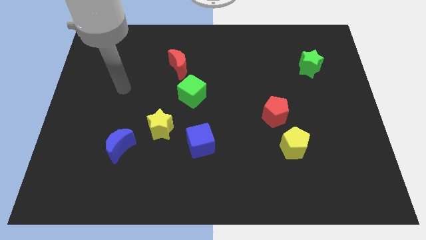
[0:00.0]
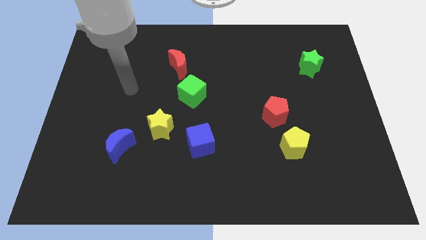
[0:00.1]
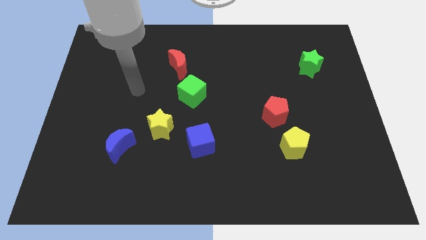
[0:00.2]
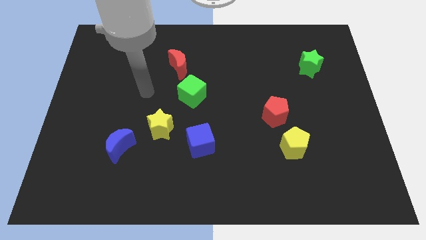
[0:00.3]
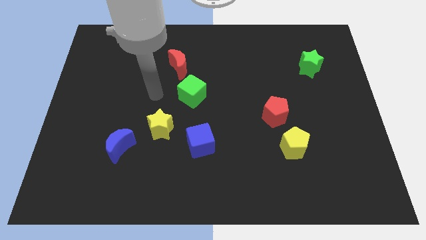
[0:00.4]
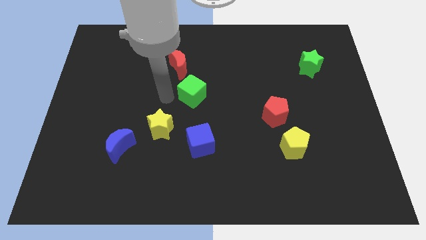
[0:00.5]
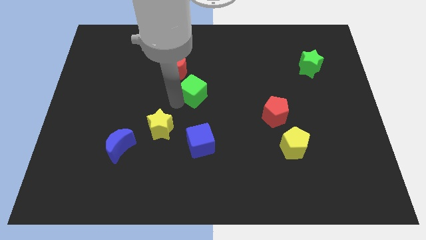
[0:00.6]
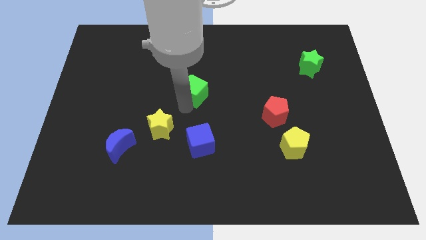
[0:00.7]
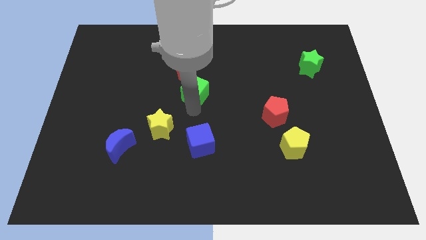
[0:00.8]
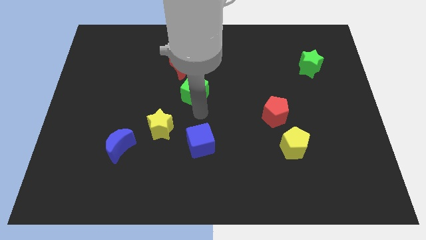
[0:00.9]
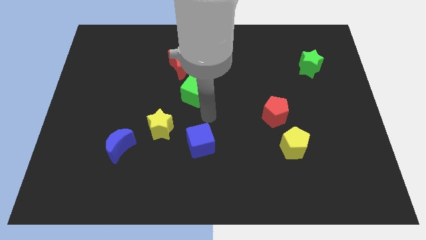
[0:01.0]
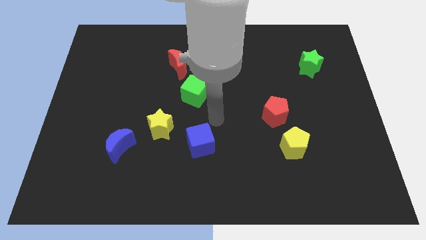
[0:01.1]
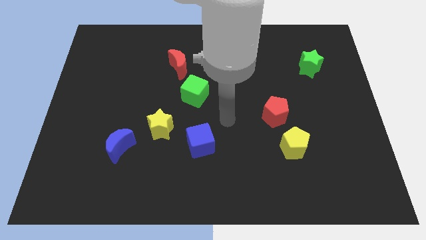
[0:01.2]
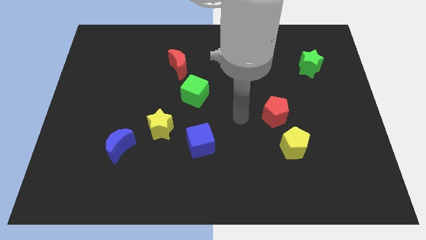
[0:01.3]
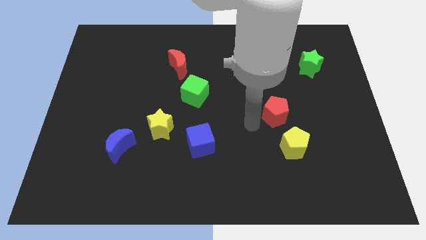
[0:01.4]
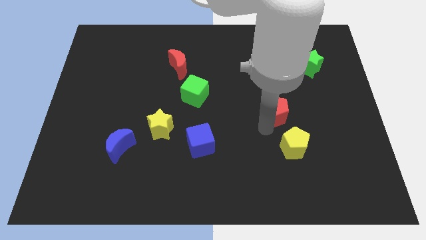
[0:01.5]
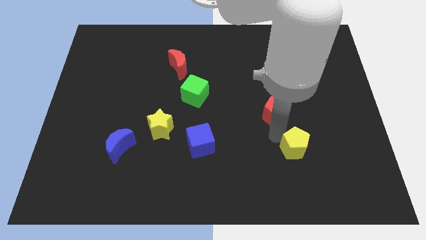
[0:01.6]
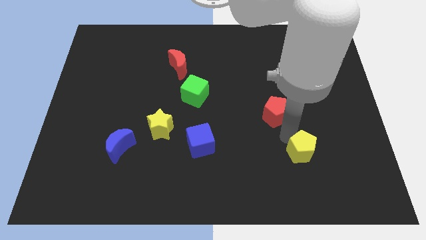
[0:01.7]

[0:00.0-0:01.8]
separate the red pentagon from the yellow pentagon

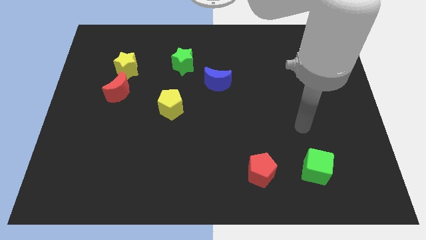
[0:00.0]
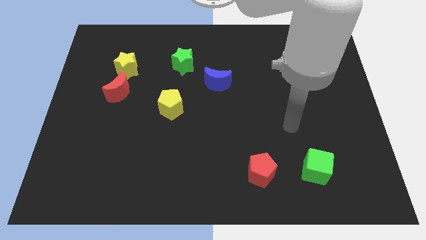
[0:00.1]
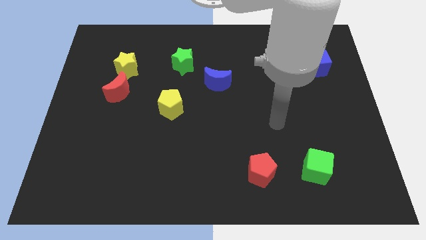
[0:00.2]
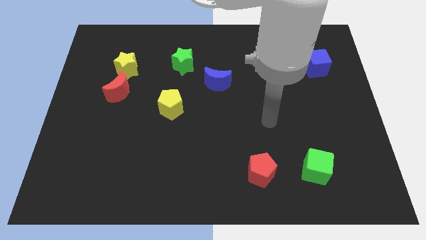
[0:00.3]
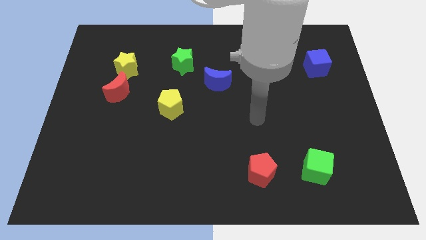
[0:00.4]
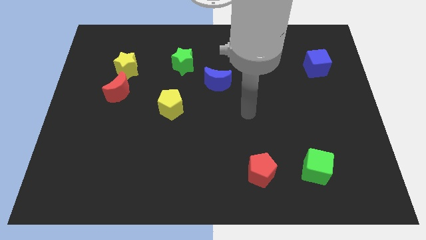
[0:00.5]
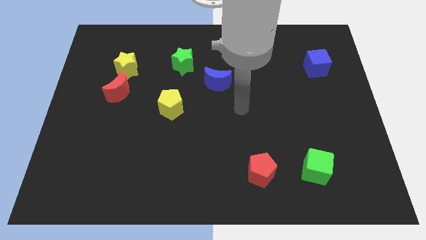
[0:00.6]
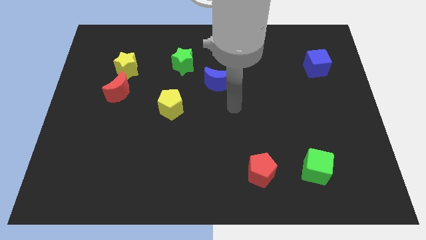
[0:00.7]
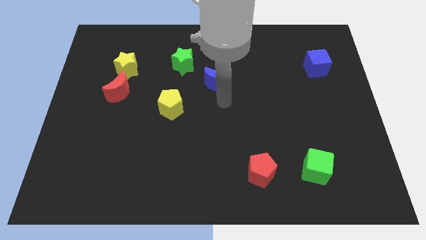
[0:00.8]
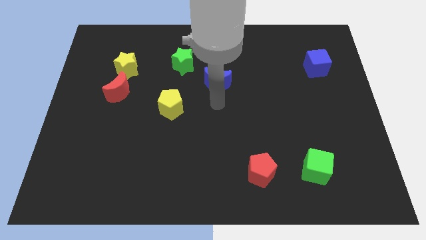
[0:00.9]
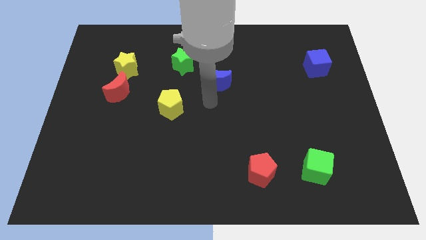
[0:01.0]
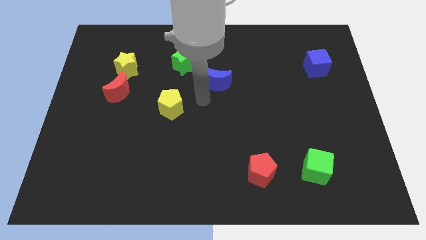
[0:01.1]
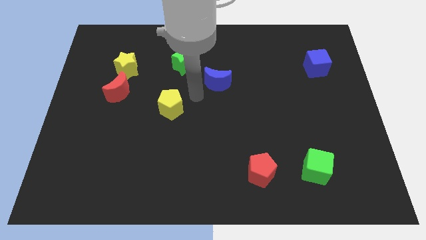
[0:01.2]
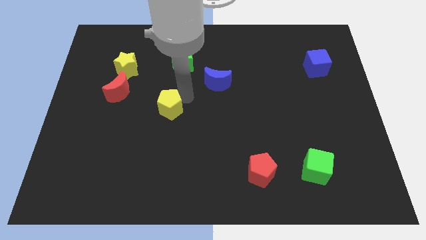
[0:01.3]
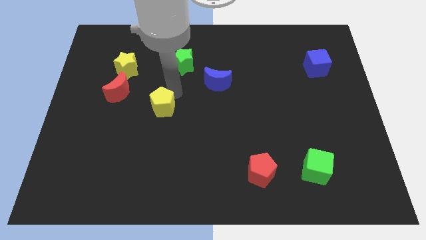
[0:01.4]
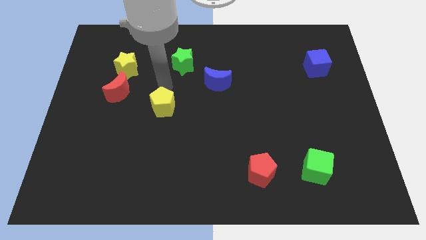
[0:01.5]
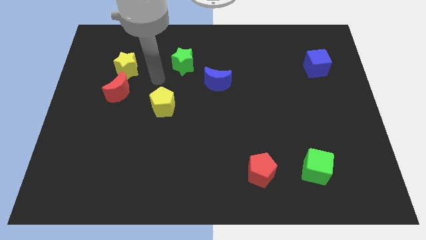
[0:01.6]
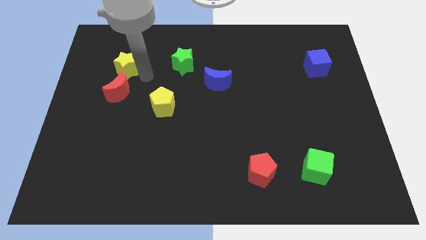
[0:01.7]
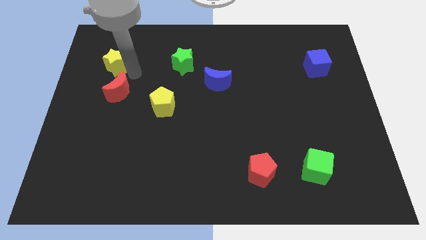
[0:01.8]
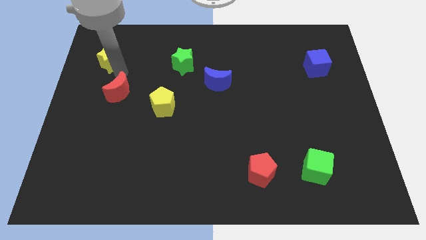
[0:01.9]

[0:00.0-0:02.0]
move the red moon away from the yellow star

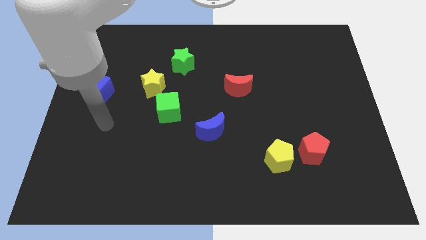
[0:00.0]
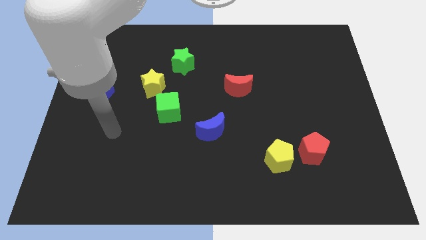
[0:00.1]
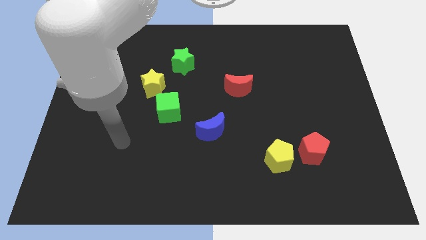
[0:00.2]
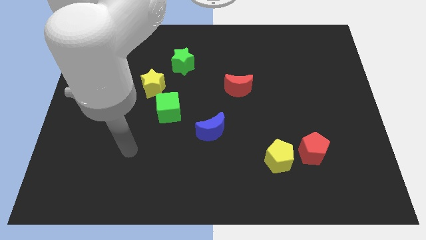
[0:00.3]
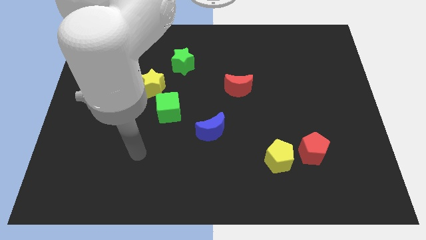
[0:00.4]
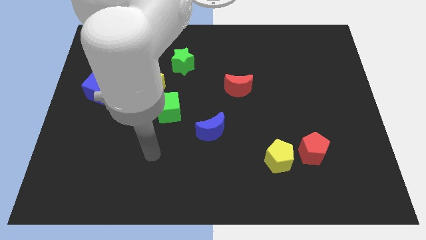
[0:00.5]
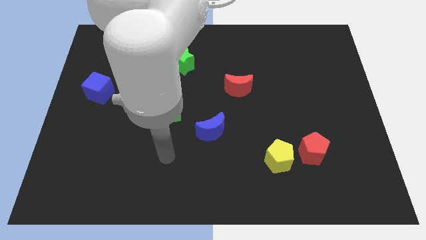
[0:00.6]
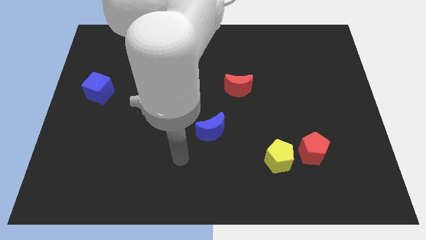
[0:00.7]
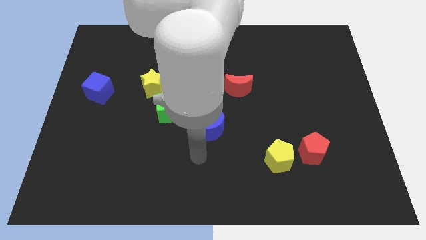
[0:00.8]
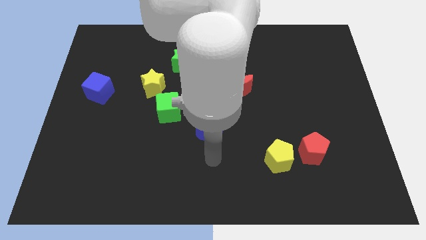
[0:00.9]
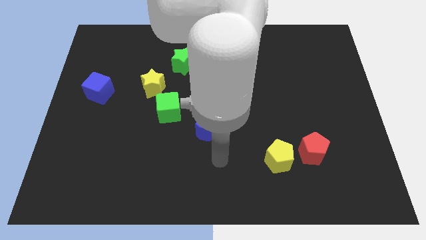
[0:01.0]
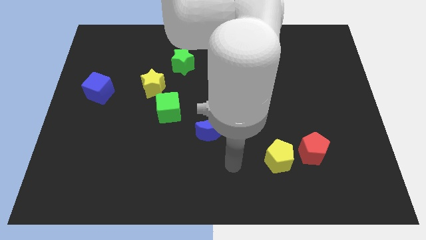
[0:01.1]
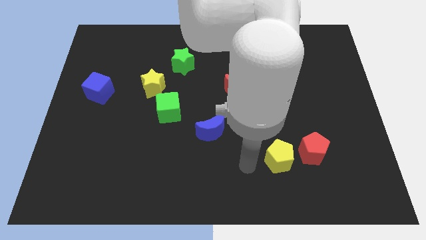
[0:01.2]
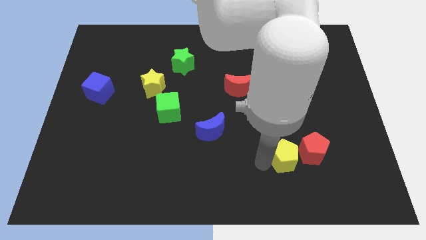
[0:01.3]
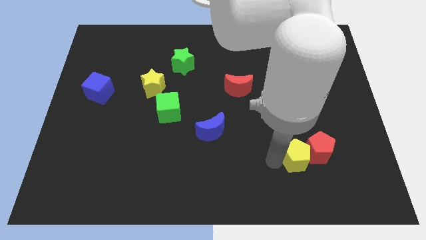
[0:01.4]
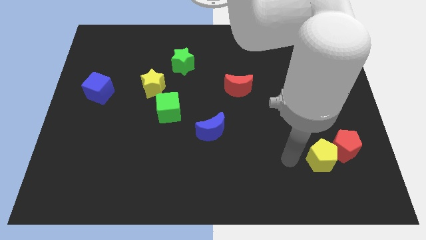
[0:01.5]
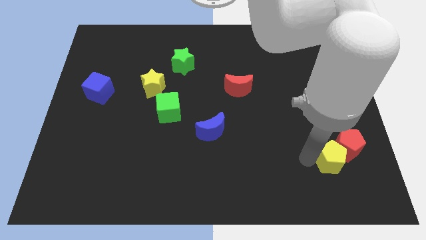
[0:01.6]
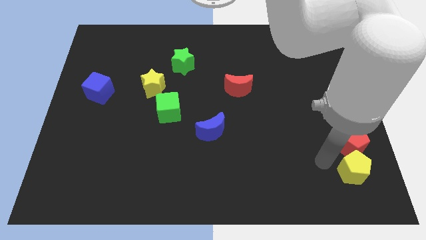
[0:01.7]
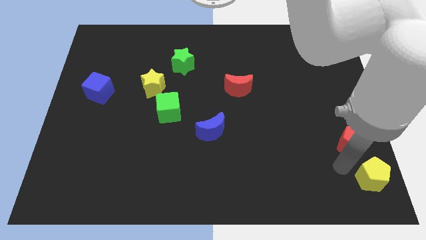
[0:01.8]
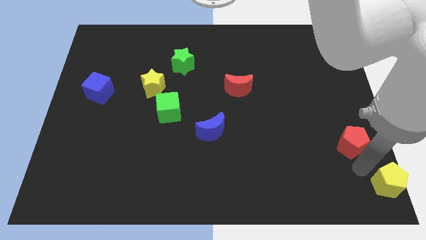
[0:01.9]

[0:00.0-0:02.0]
move the red pentagon away from the yellow pentagon

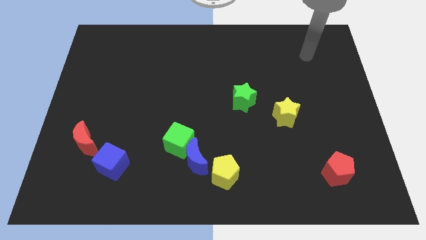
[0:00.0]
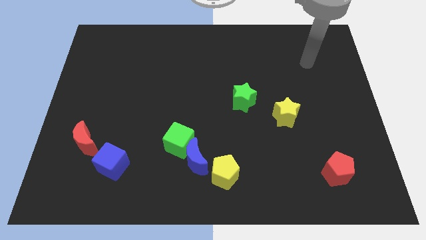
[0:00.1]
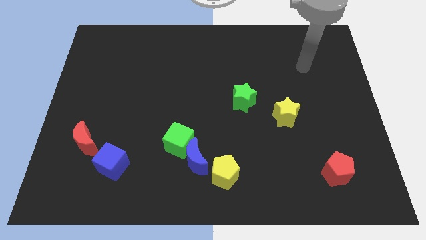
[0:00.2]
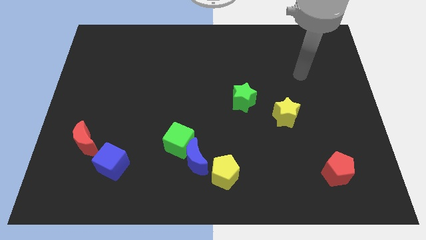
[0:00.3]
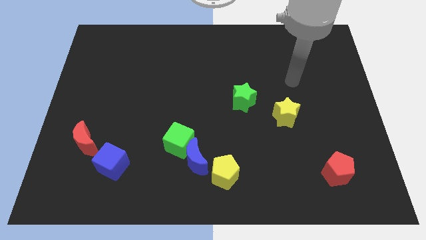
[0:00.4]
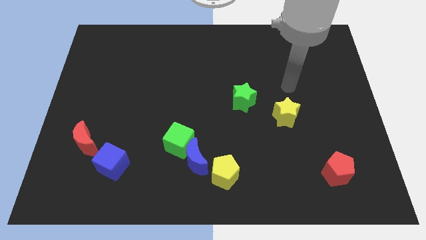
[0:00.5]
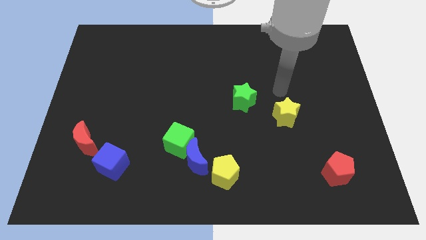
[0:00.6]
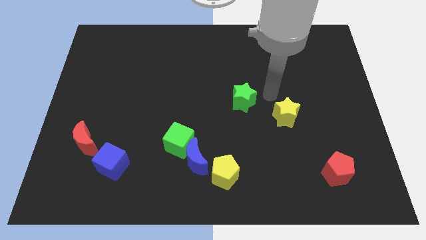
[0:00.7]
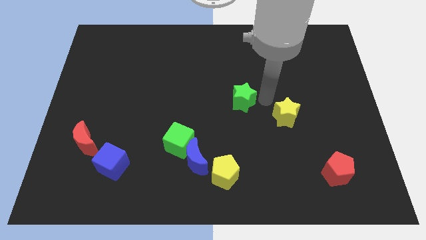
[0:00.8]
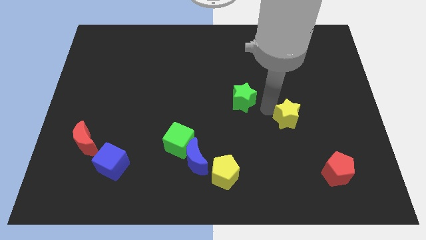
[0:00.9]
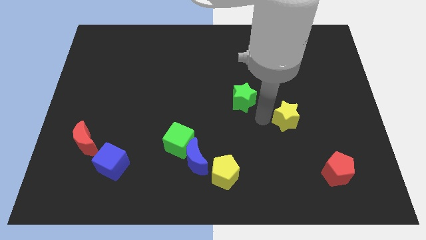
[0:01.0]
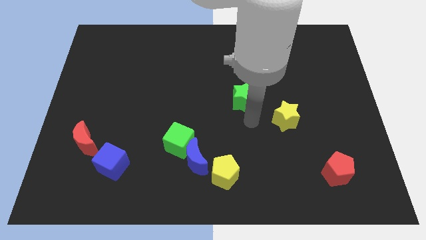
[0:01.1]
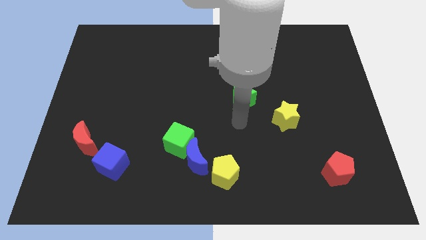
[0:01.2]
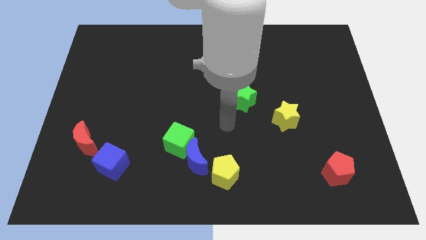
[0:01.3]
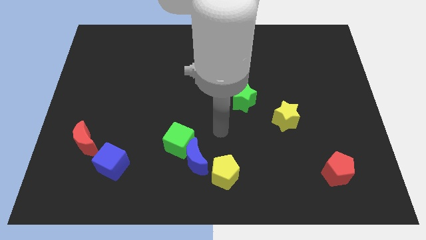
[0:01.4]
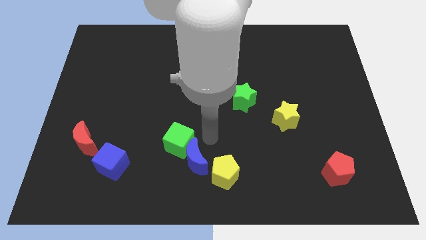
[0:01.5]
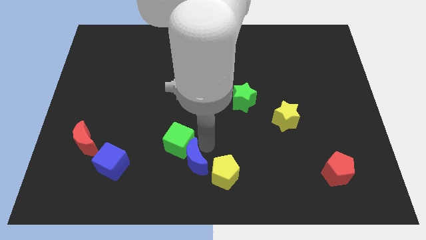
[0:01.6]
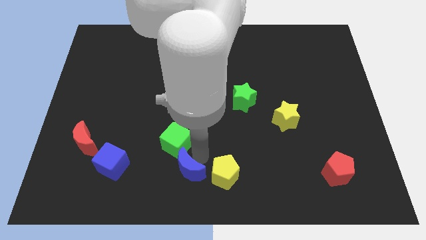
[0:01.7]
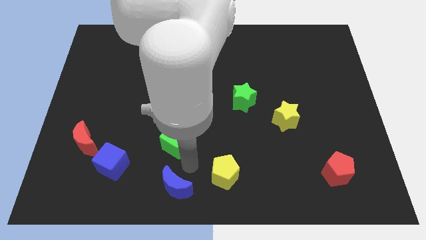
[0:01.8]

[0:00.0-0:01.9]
separate the green cube from the blue moon

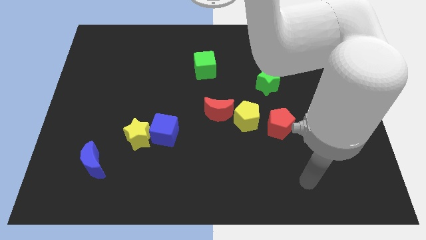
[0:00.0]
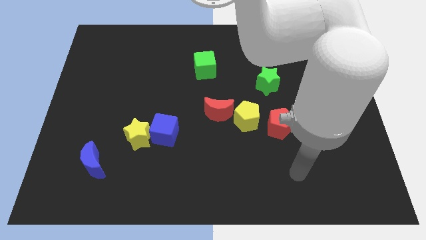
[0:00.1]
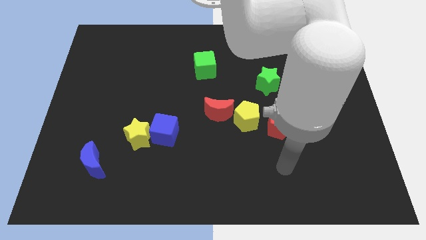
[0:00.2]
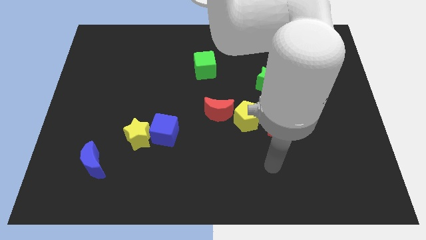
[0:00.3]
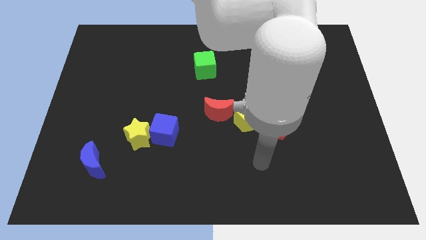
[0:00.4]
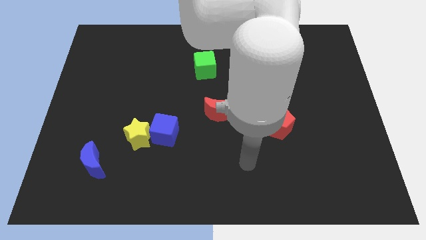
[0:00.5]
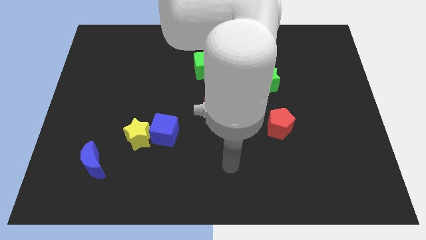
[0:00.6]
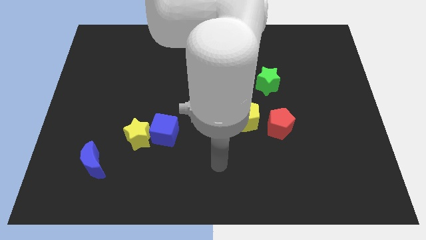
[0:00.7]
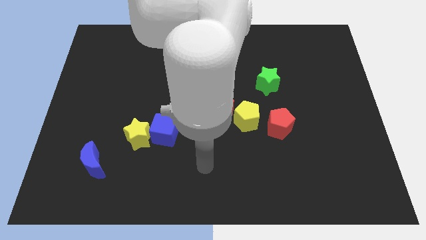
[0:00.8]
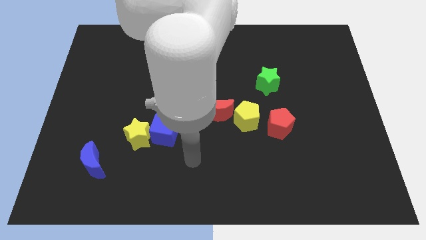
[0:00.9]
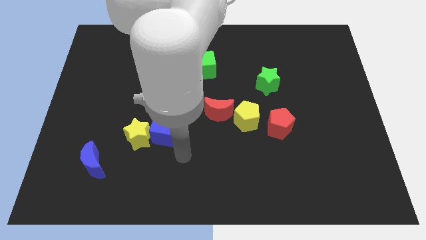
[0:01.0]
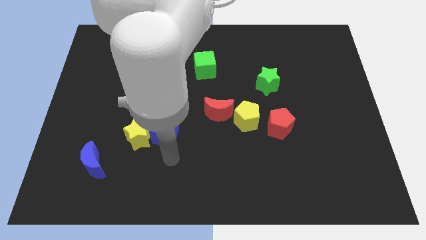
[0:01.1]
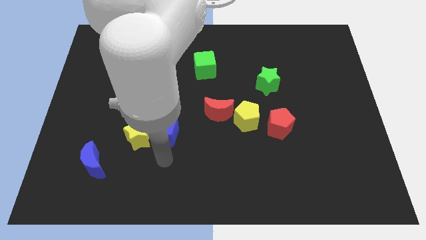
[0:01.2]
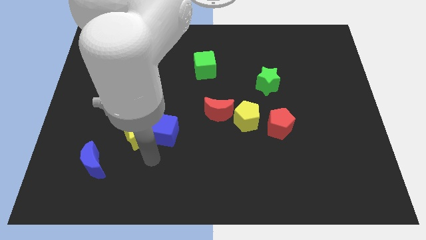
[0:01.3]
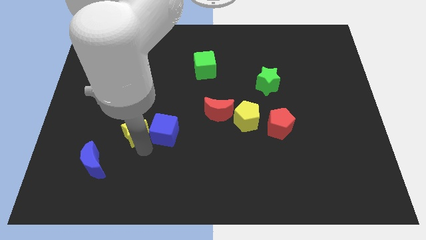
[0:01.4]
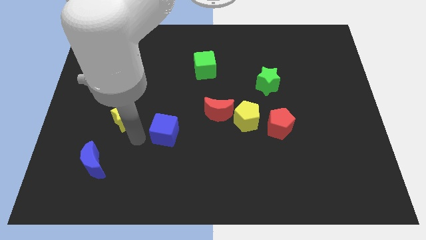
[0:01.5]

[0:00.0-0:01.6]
separate the blue cube from the yellow star
